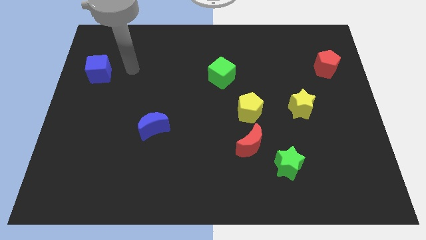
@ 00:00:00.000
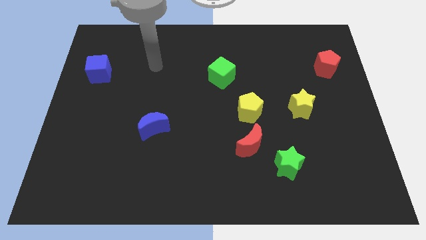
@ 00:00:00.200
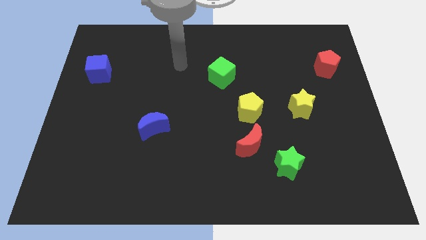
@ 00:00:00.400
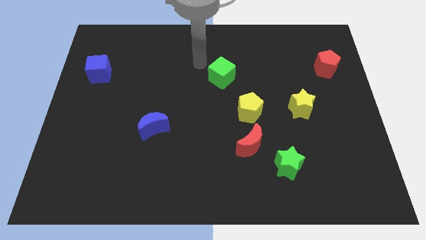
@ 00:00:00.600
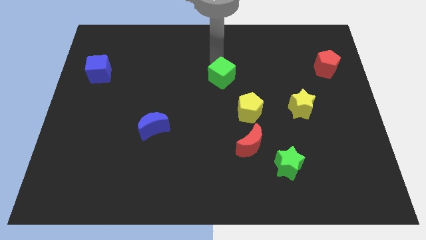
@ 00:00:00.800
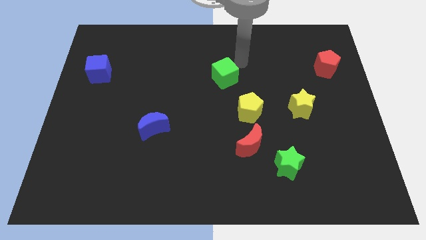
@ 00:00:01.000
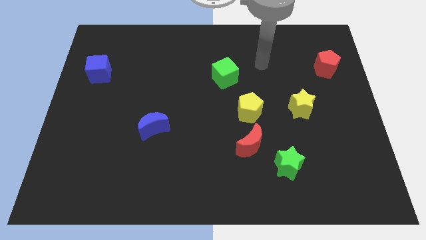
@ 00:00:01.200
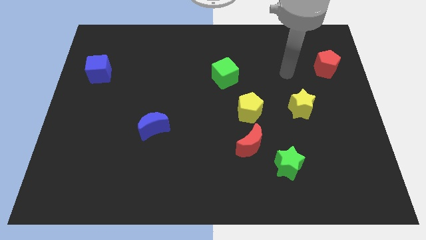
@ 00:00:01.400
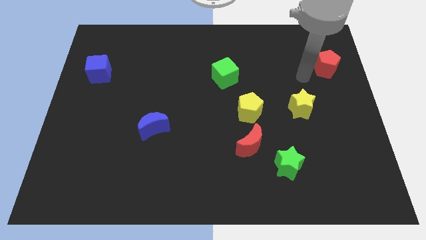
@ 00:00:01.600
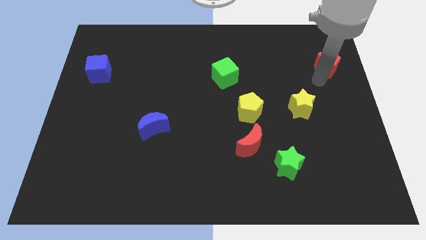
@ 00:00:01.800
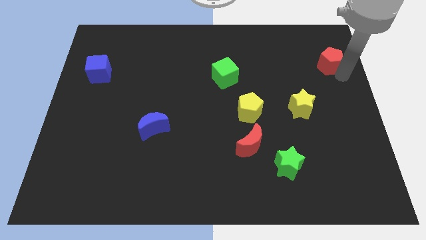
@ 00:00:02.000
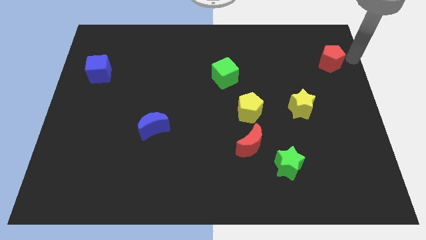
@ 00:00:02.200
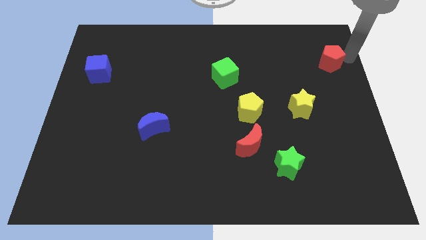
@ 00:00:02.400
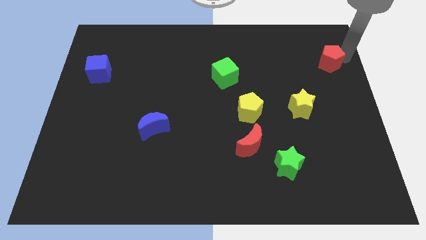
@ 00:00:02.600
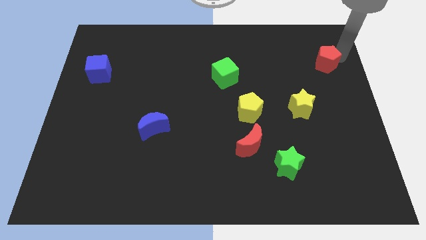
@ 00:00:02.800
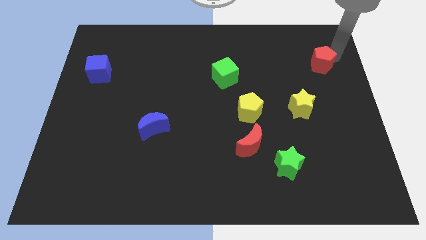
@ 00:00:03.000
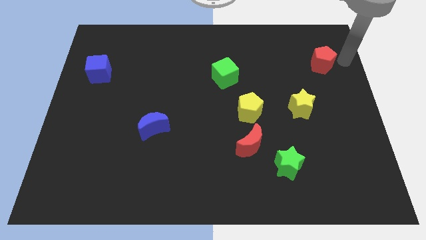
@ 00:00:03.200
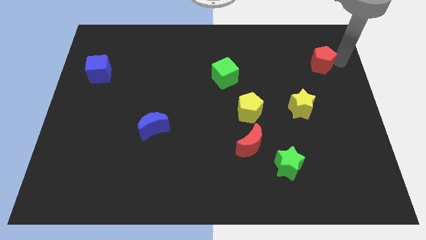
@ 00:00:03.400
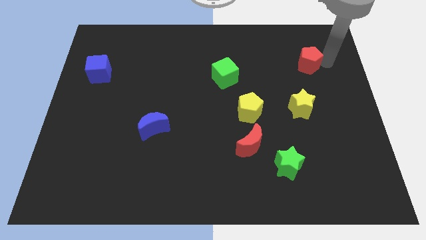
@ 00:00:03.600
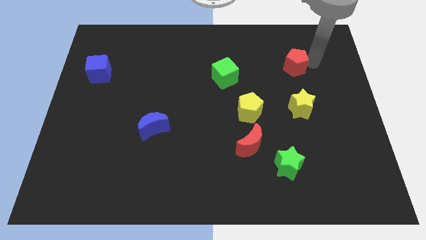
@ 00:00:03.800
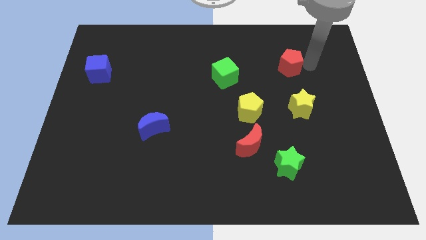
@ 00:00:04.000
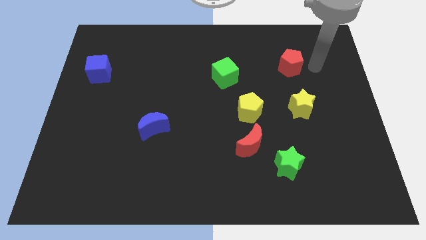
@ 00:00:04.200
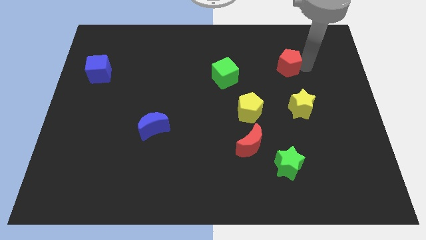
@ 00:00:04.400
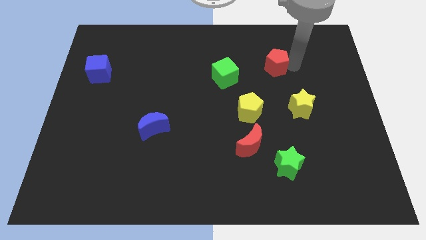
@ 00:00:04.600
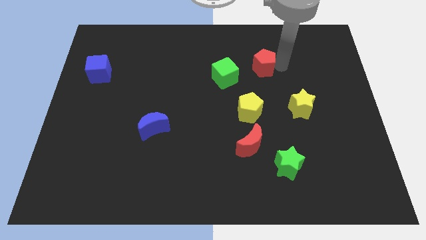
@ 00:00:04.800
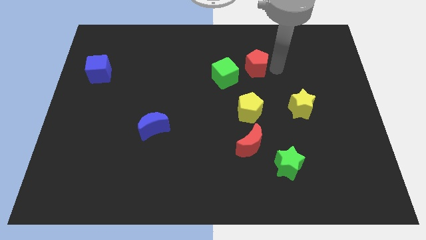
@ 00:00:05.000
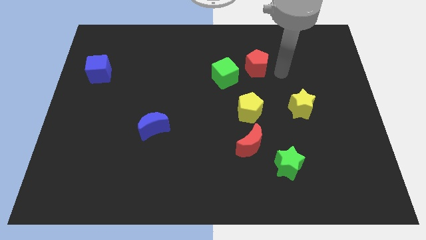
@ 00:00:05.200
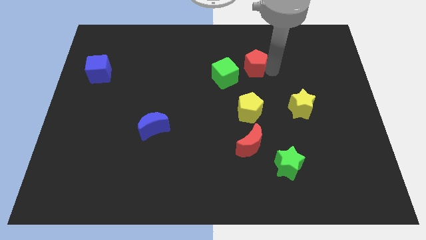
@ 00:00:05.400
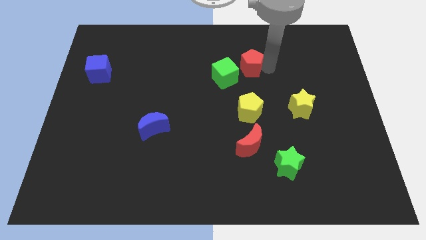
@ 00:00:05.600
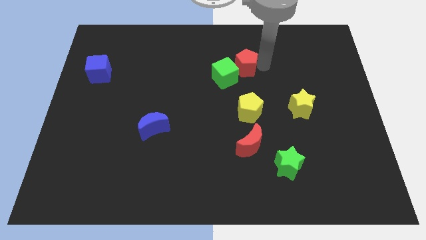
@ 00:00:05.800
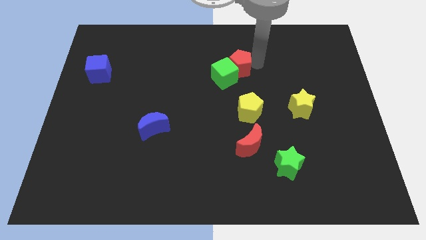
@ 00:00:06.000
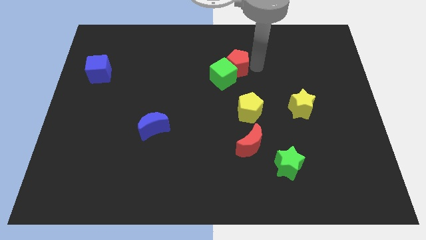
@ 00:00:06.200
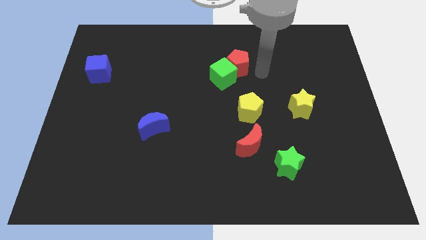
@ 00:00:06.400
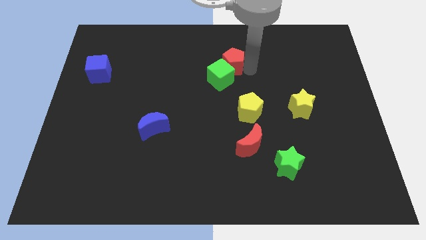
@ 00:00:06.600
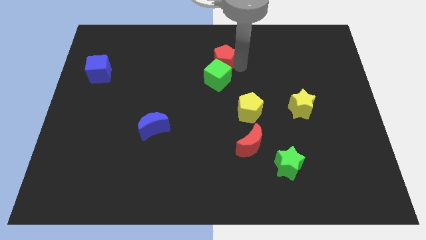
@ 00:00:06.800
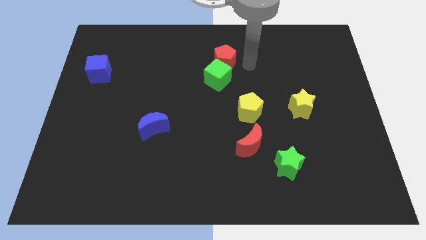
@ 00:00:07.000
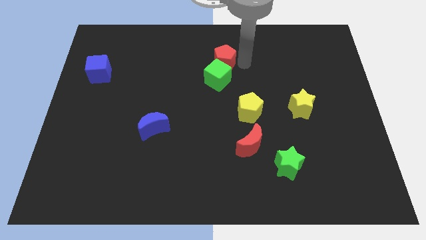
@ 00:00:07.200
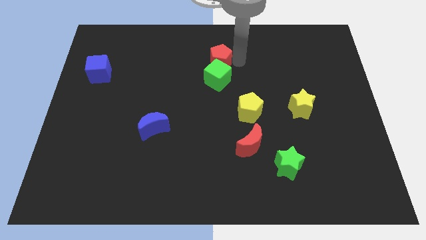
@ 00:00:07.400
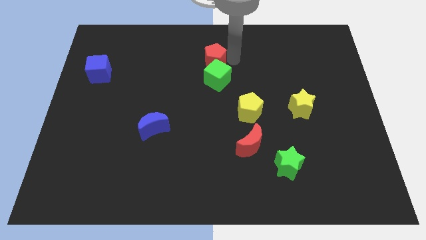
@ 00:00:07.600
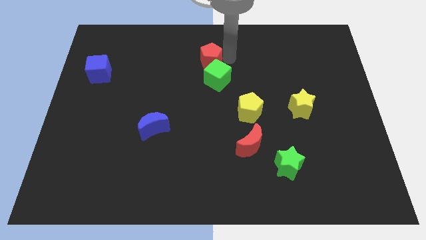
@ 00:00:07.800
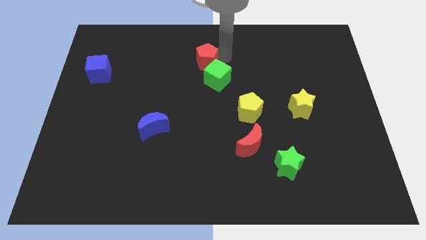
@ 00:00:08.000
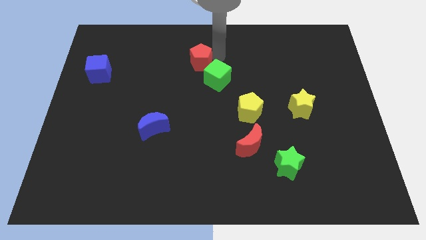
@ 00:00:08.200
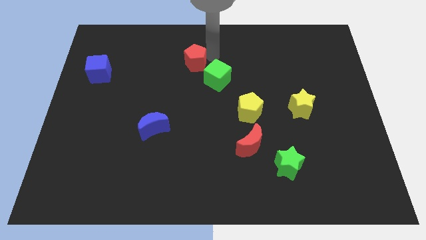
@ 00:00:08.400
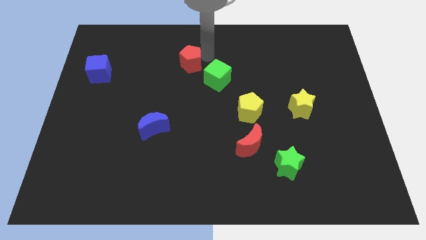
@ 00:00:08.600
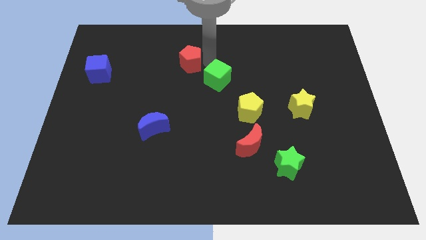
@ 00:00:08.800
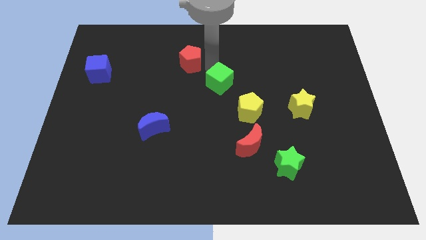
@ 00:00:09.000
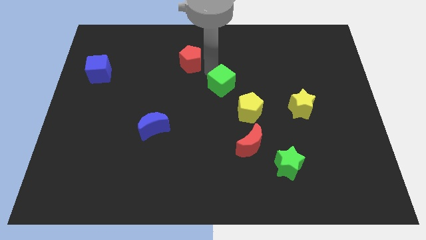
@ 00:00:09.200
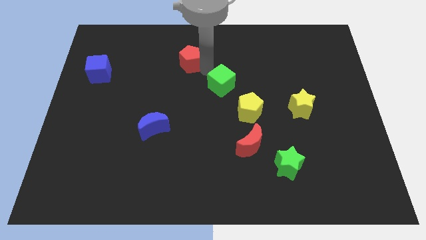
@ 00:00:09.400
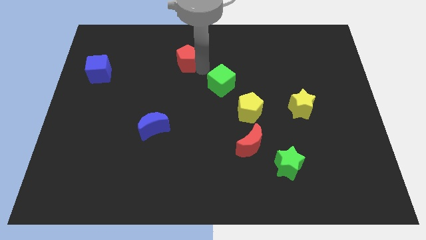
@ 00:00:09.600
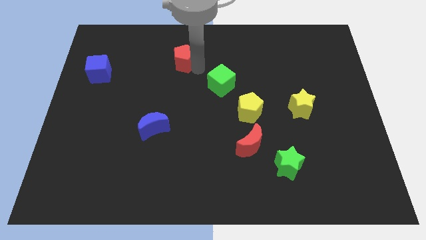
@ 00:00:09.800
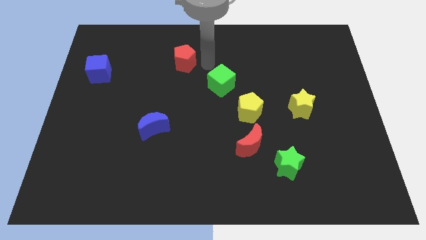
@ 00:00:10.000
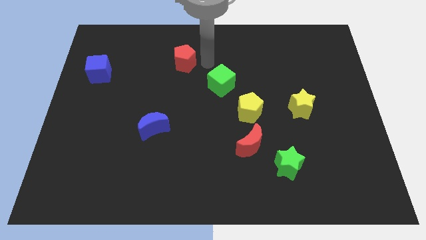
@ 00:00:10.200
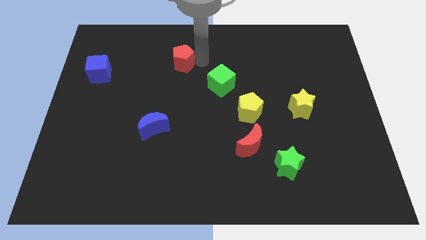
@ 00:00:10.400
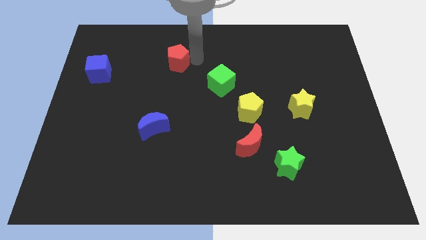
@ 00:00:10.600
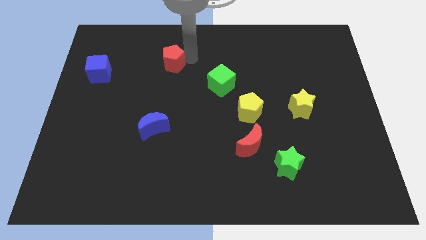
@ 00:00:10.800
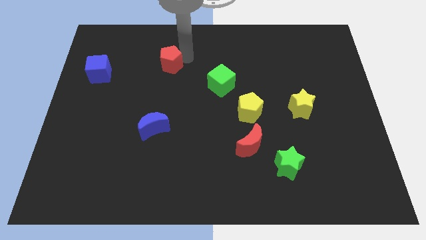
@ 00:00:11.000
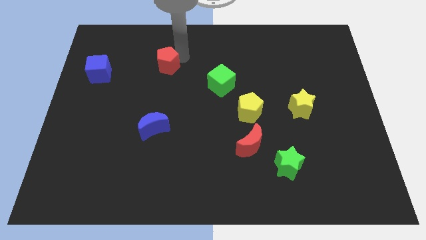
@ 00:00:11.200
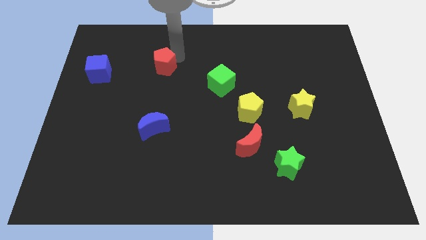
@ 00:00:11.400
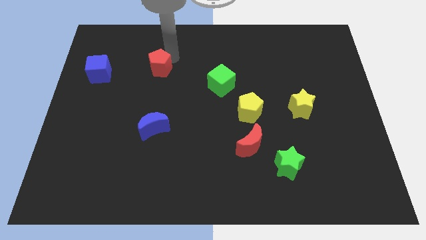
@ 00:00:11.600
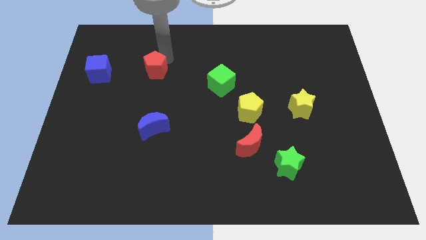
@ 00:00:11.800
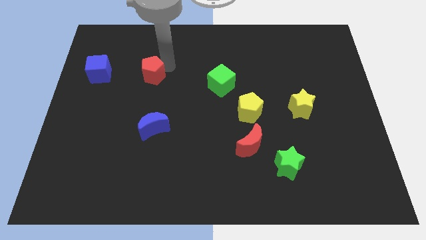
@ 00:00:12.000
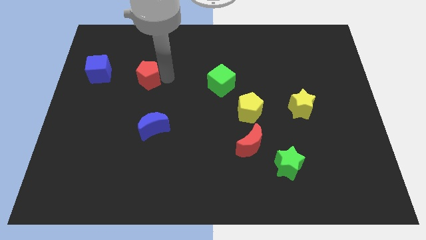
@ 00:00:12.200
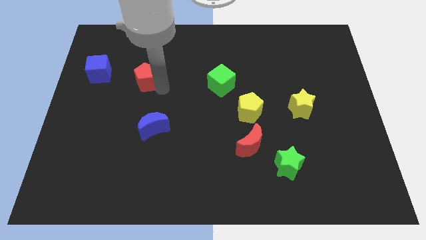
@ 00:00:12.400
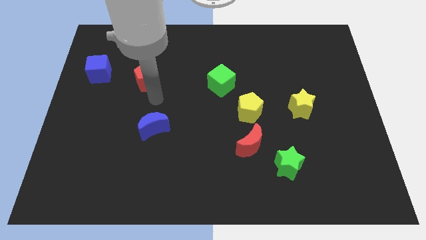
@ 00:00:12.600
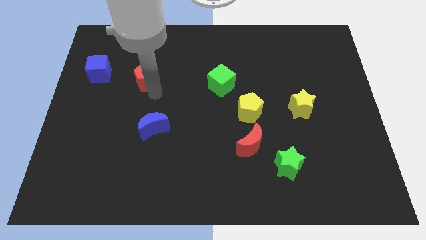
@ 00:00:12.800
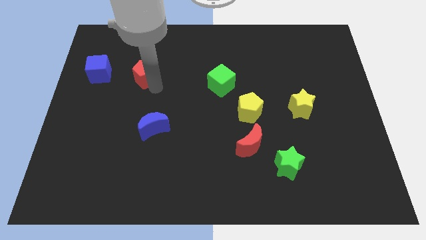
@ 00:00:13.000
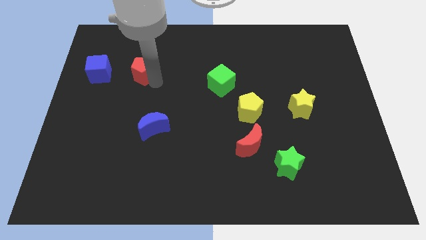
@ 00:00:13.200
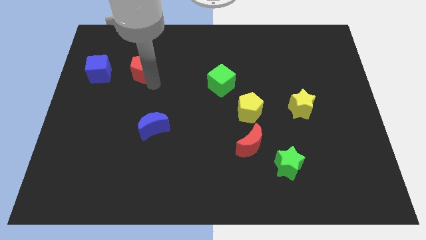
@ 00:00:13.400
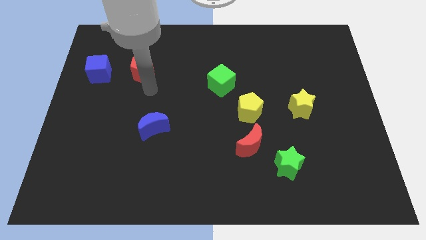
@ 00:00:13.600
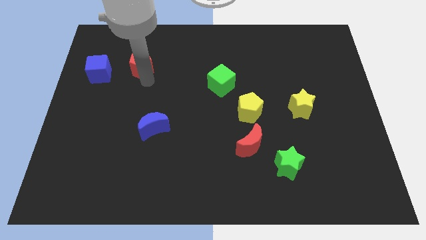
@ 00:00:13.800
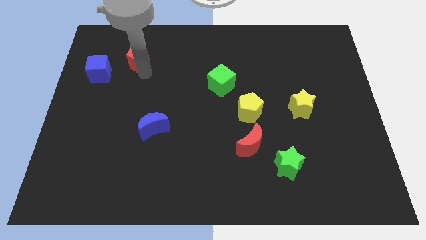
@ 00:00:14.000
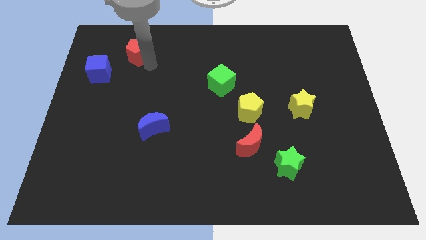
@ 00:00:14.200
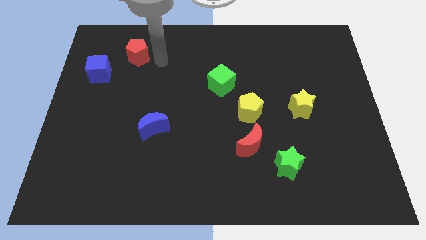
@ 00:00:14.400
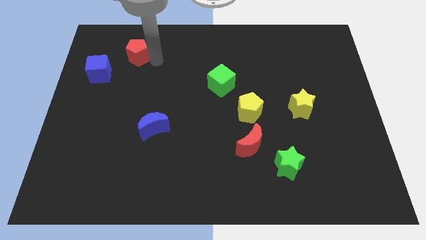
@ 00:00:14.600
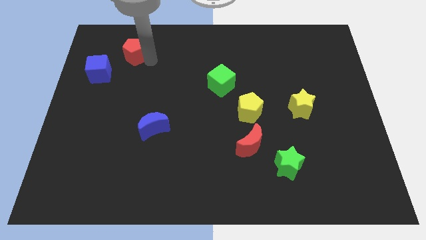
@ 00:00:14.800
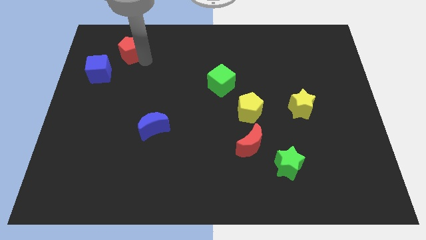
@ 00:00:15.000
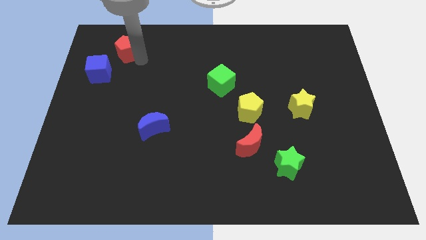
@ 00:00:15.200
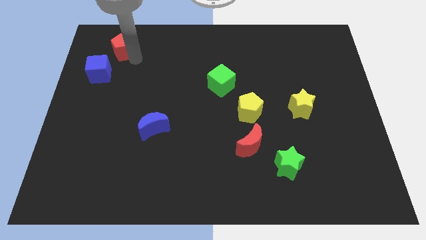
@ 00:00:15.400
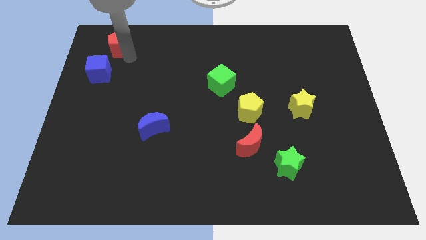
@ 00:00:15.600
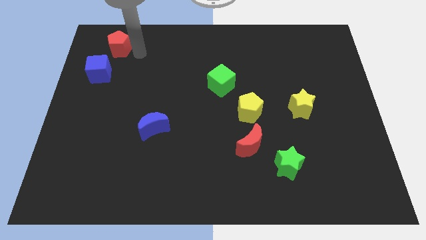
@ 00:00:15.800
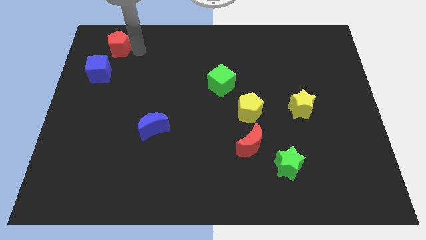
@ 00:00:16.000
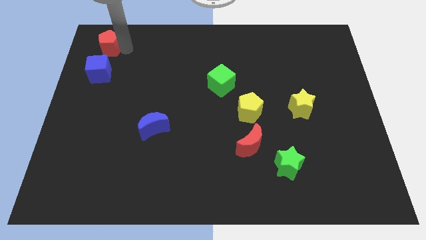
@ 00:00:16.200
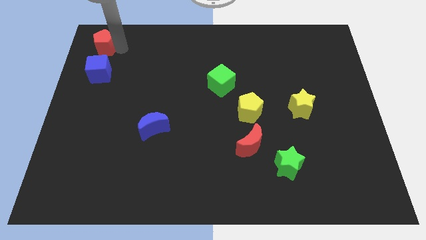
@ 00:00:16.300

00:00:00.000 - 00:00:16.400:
push the red pentagon to the top left
